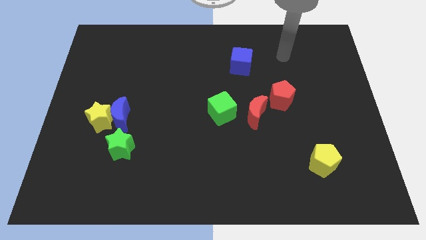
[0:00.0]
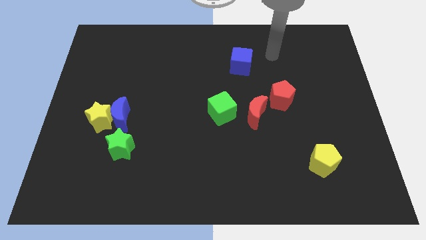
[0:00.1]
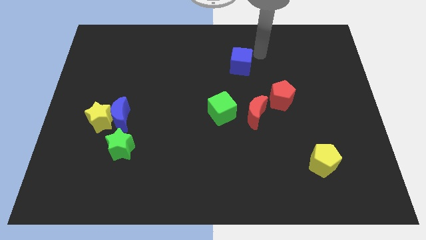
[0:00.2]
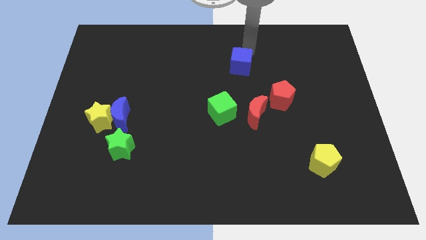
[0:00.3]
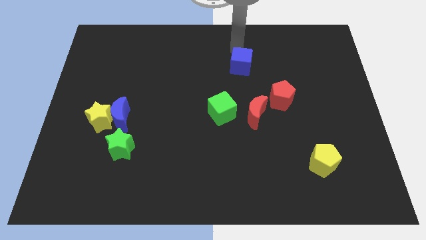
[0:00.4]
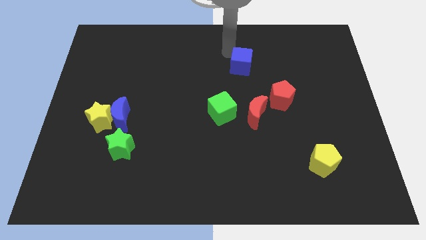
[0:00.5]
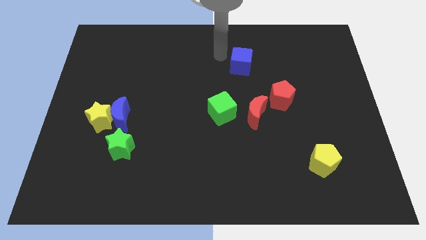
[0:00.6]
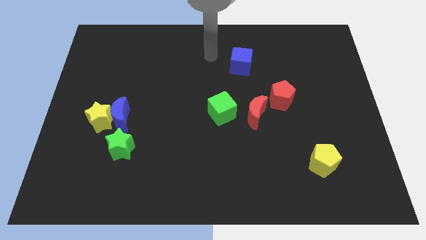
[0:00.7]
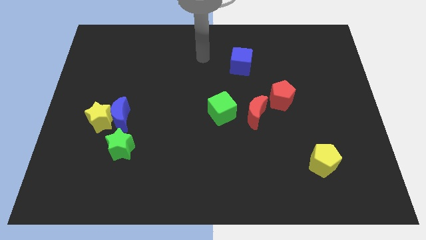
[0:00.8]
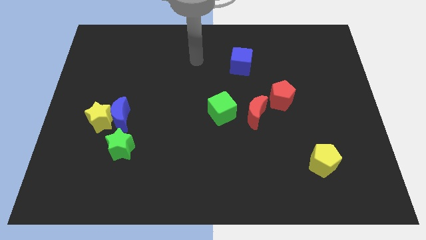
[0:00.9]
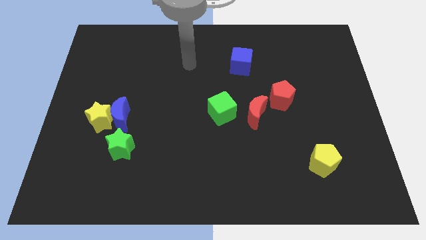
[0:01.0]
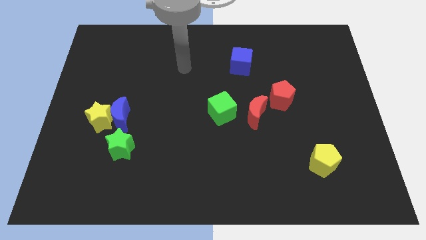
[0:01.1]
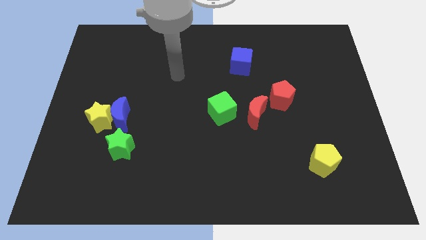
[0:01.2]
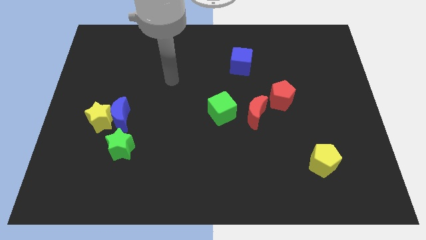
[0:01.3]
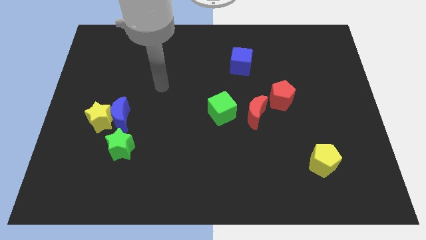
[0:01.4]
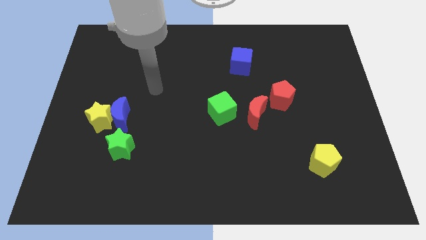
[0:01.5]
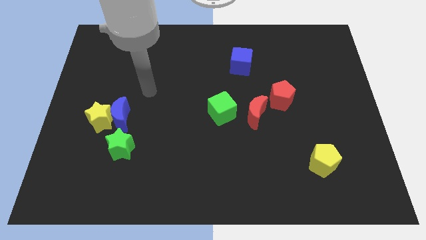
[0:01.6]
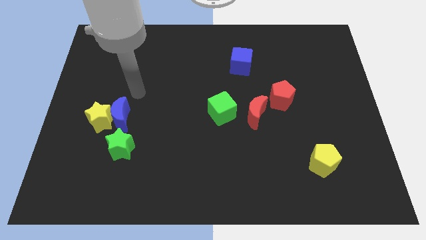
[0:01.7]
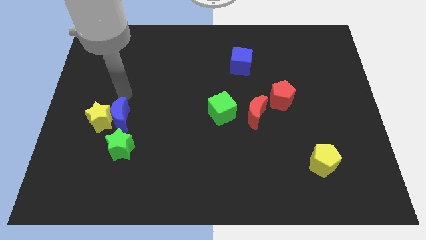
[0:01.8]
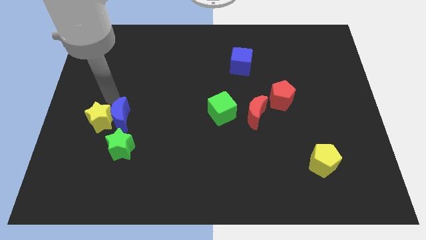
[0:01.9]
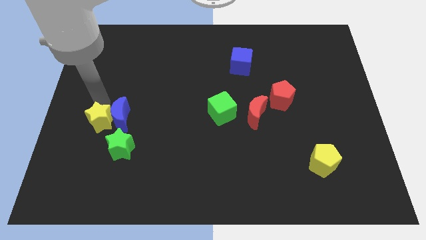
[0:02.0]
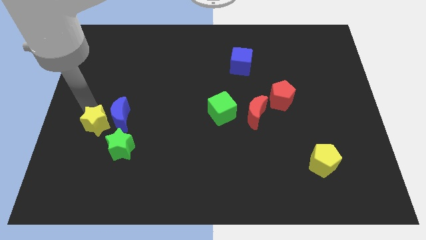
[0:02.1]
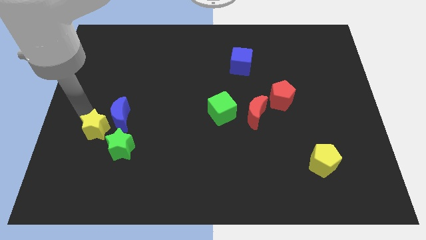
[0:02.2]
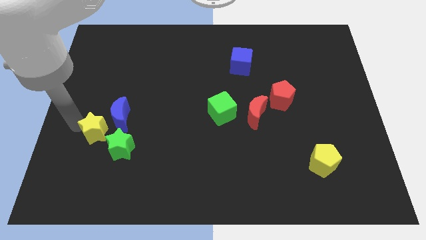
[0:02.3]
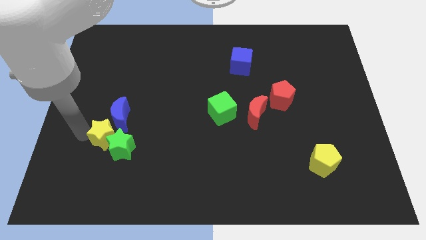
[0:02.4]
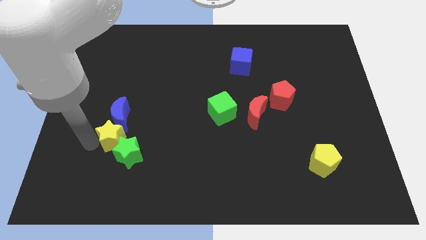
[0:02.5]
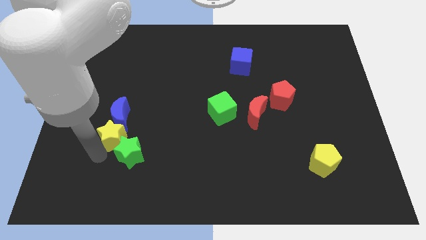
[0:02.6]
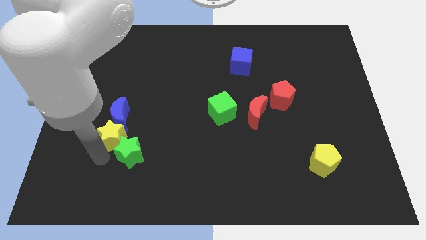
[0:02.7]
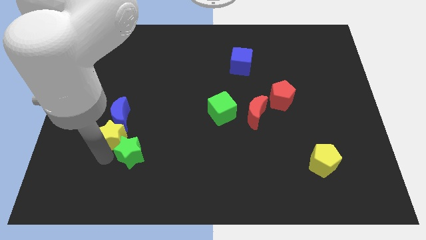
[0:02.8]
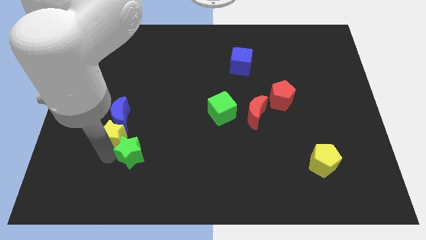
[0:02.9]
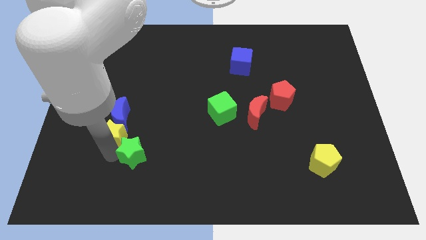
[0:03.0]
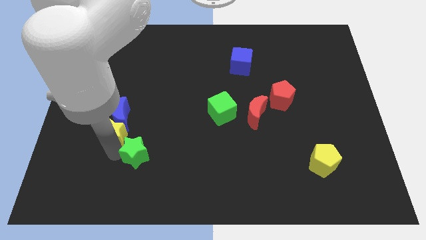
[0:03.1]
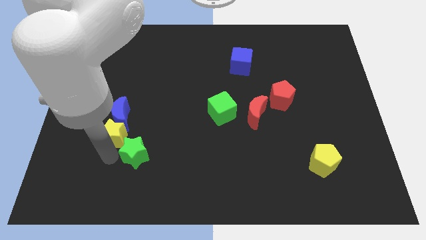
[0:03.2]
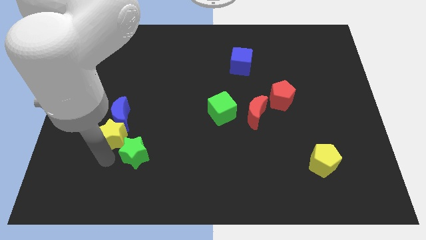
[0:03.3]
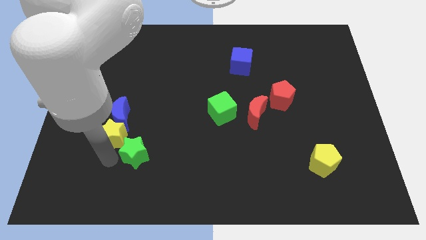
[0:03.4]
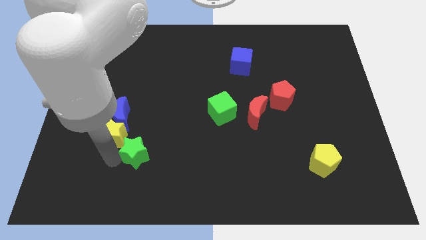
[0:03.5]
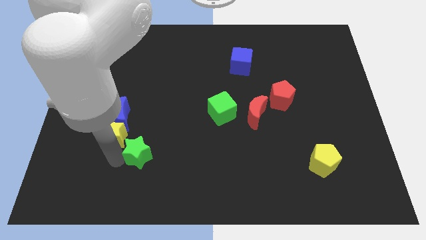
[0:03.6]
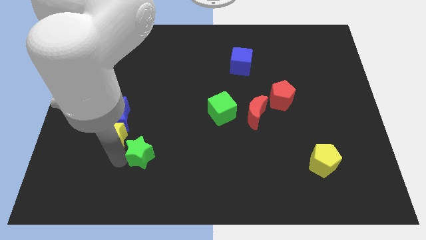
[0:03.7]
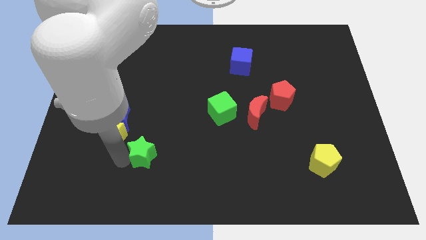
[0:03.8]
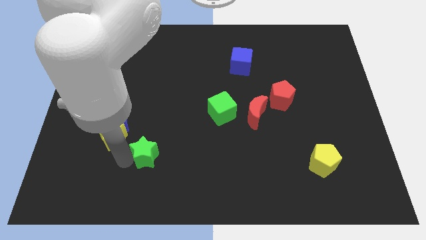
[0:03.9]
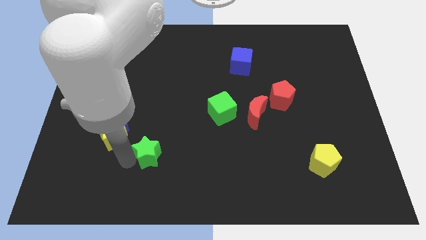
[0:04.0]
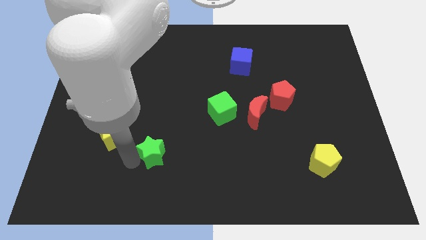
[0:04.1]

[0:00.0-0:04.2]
slightly push the green star right

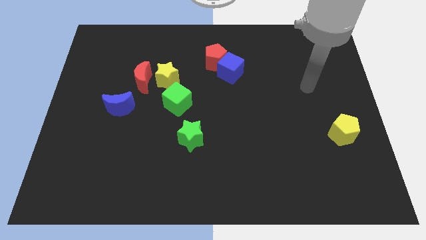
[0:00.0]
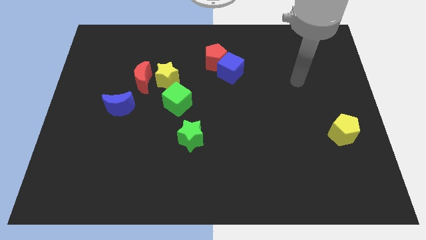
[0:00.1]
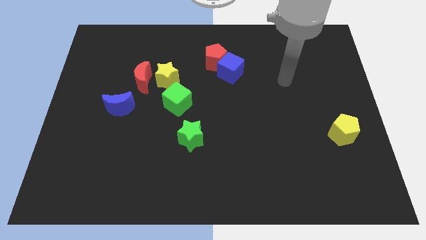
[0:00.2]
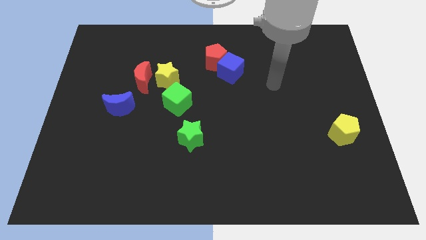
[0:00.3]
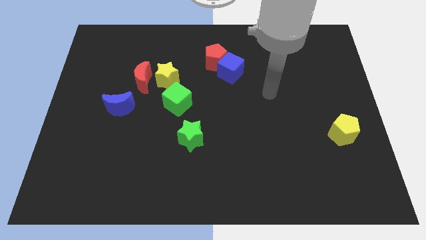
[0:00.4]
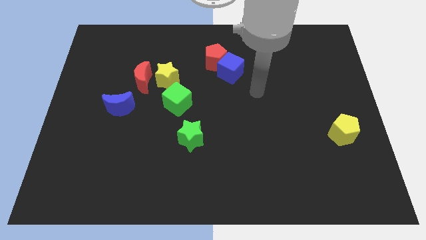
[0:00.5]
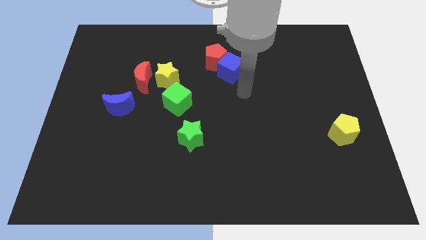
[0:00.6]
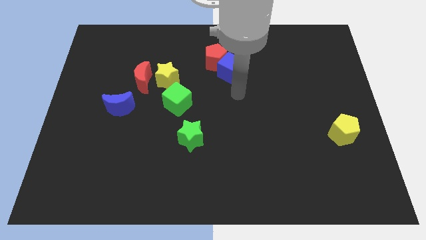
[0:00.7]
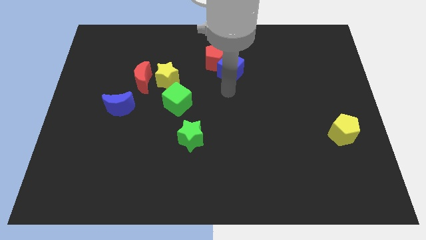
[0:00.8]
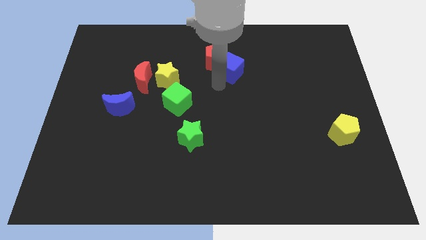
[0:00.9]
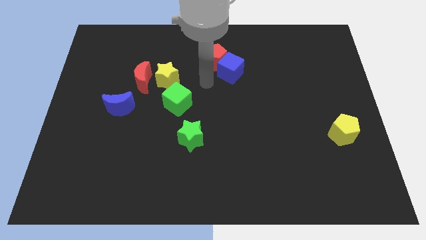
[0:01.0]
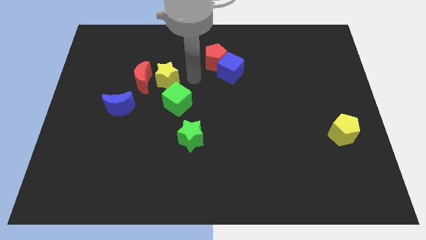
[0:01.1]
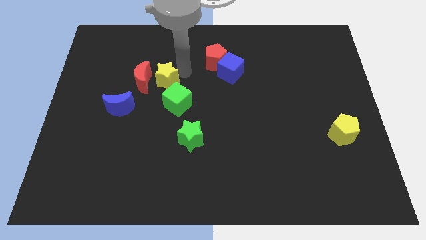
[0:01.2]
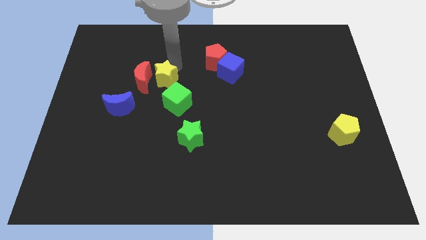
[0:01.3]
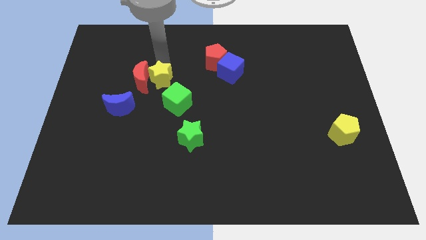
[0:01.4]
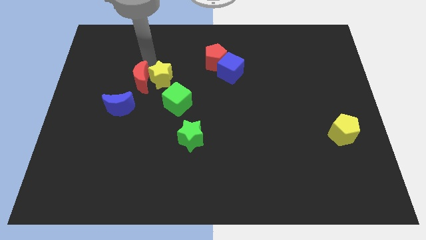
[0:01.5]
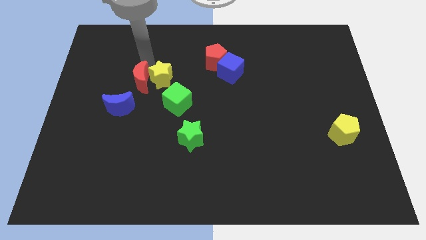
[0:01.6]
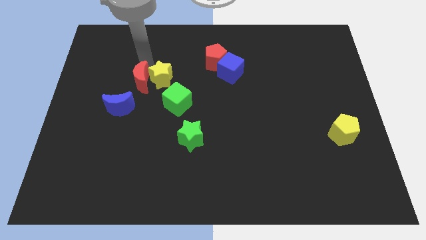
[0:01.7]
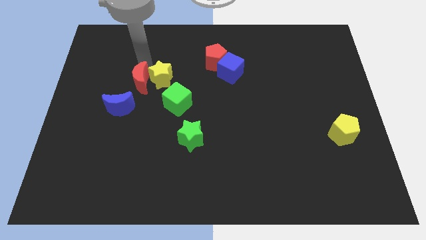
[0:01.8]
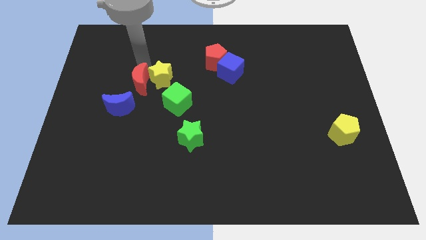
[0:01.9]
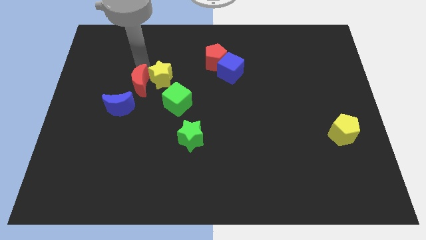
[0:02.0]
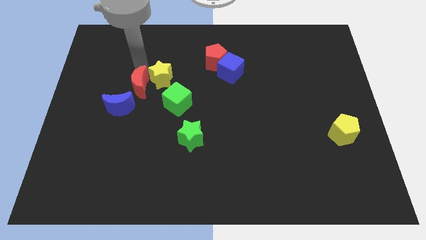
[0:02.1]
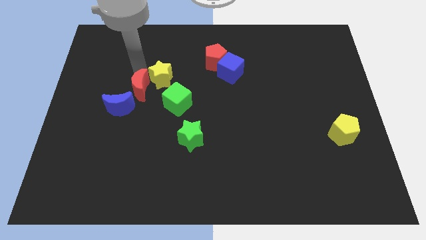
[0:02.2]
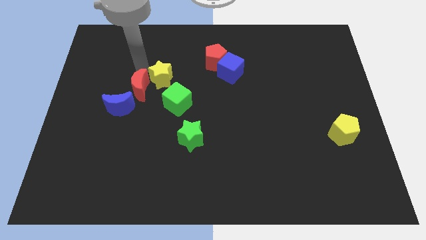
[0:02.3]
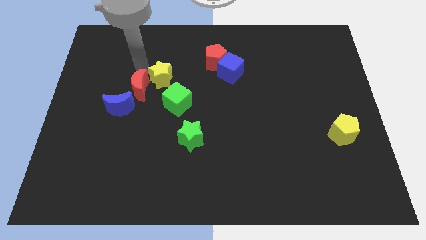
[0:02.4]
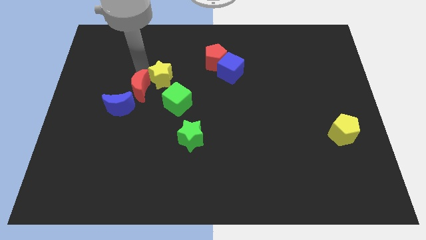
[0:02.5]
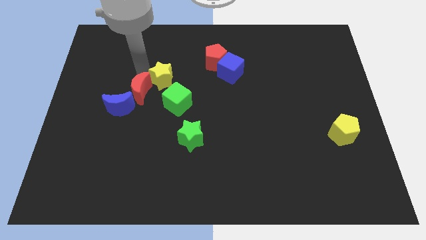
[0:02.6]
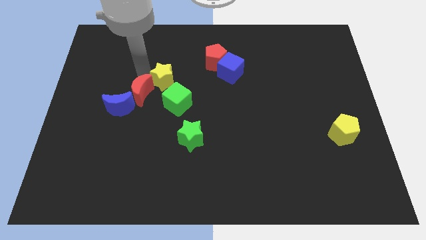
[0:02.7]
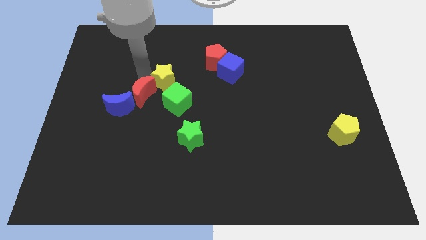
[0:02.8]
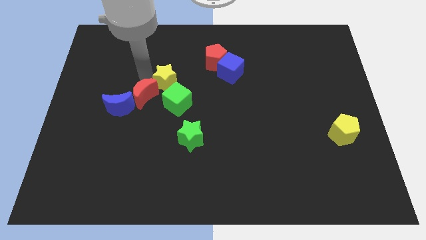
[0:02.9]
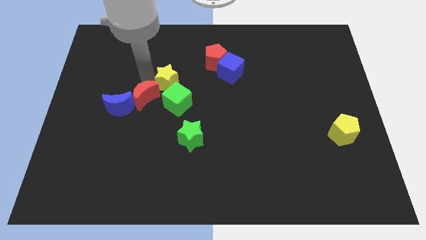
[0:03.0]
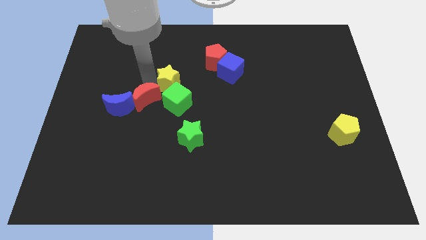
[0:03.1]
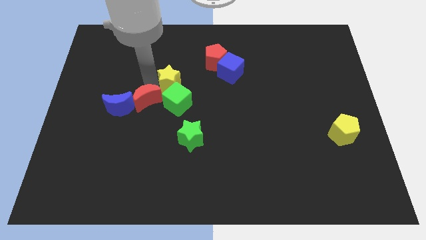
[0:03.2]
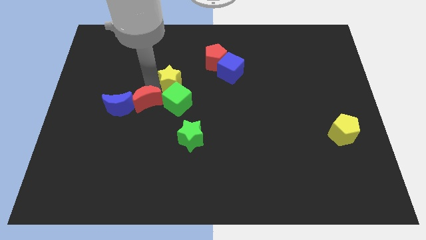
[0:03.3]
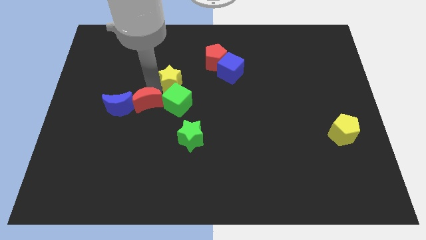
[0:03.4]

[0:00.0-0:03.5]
slightly move the red moon down
